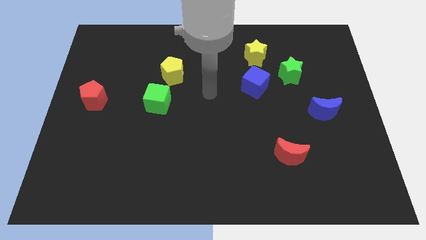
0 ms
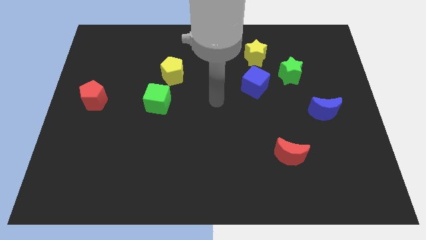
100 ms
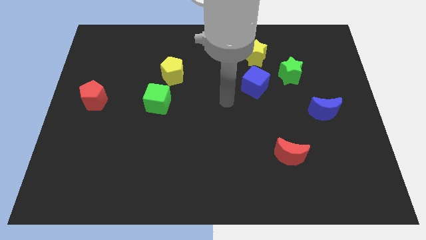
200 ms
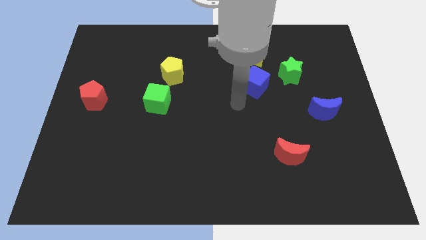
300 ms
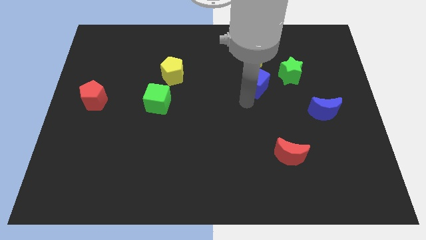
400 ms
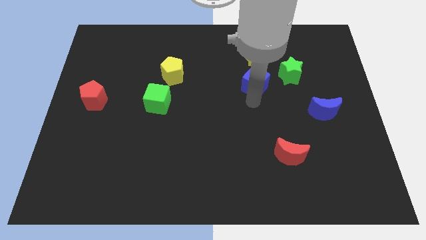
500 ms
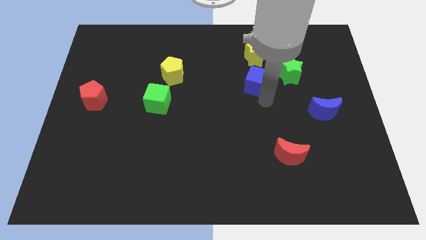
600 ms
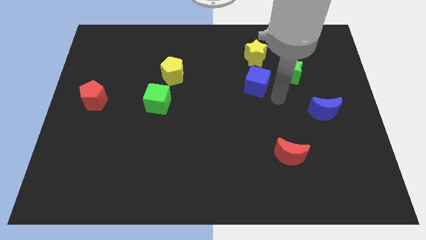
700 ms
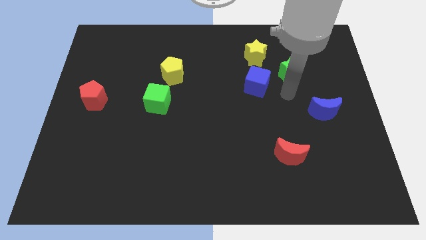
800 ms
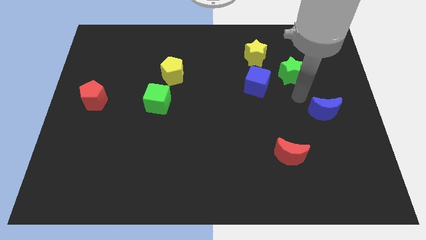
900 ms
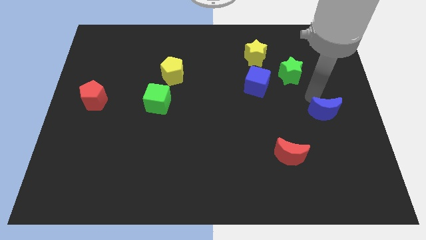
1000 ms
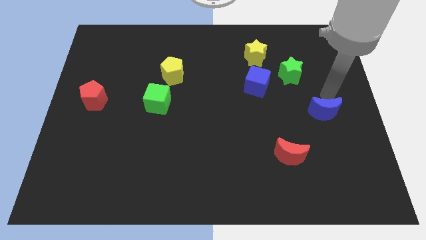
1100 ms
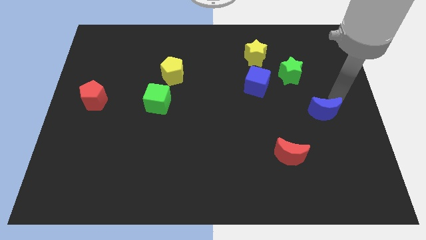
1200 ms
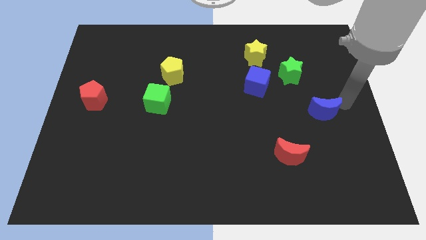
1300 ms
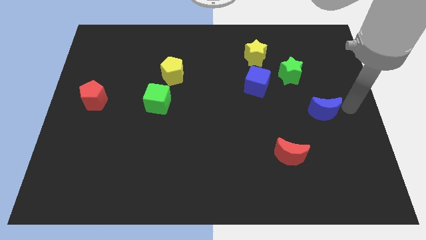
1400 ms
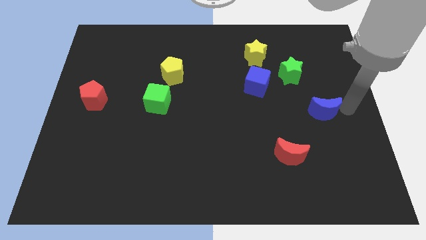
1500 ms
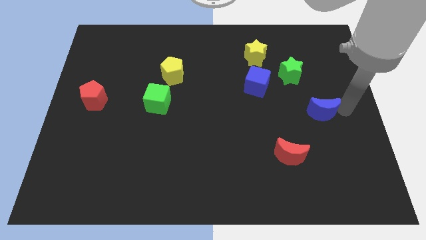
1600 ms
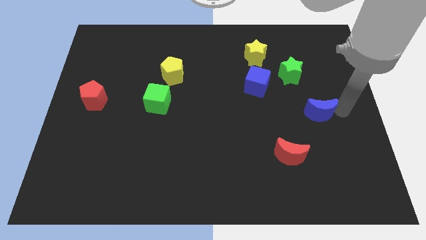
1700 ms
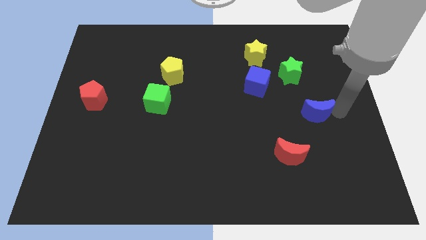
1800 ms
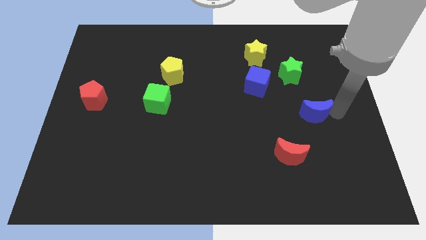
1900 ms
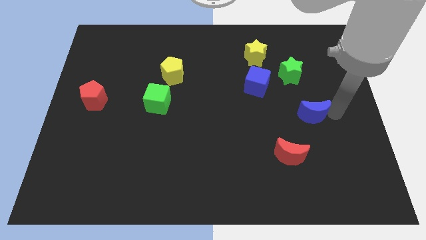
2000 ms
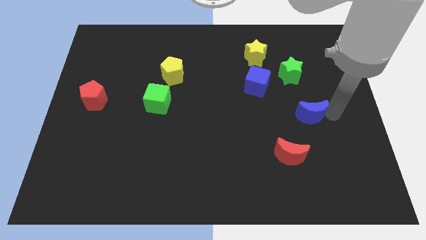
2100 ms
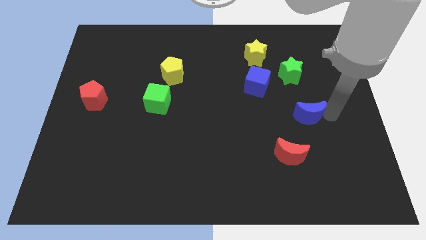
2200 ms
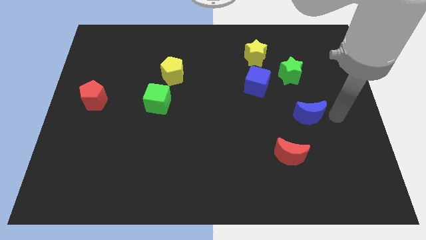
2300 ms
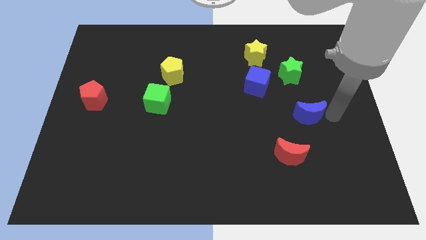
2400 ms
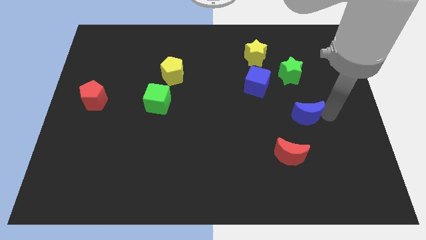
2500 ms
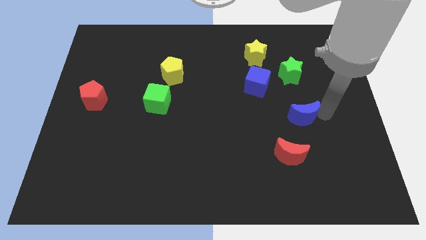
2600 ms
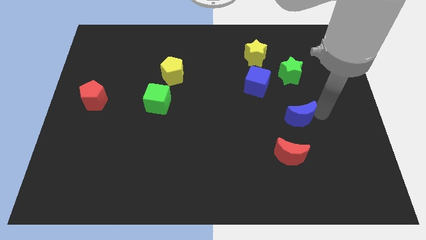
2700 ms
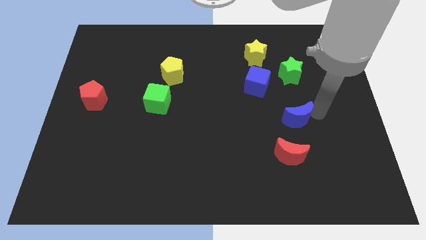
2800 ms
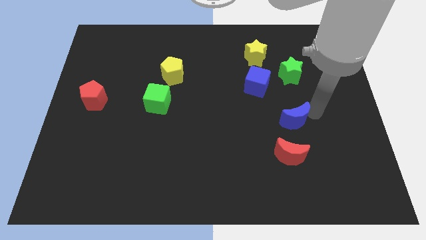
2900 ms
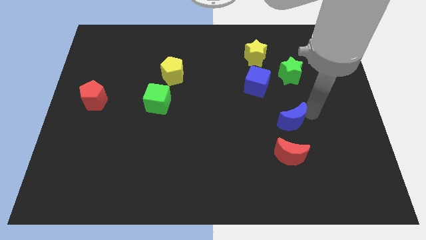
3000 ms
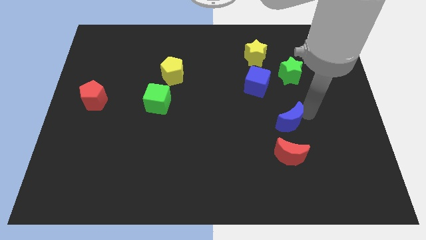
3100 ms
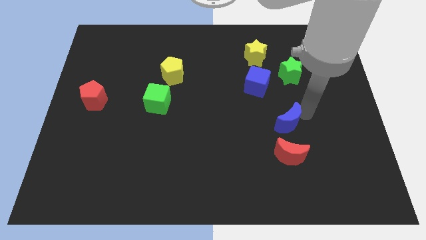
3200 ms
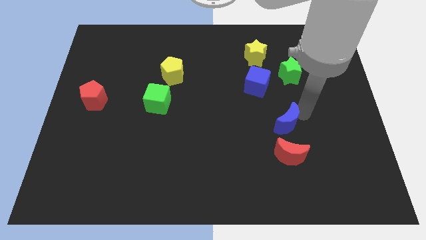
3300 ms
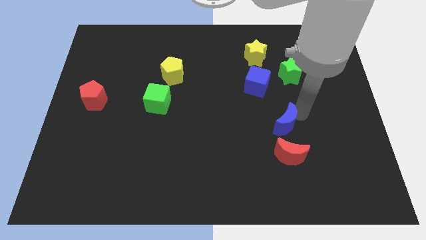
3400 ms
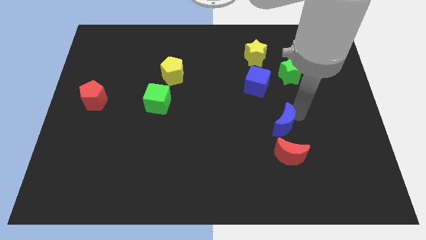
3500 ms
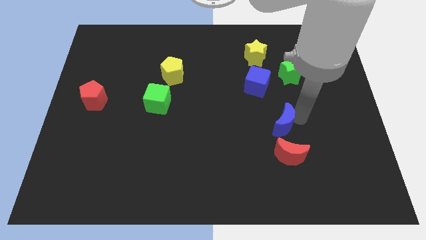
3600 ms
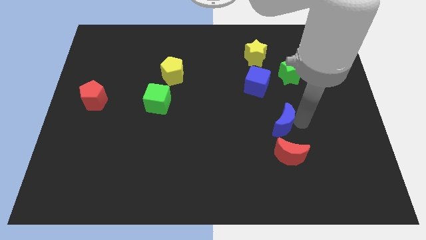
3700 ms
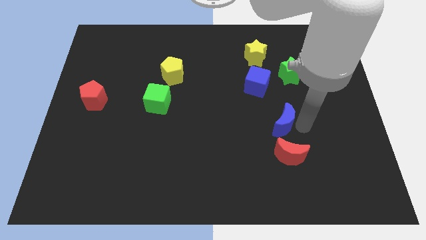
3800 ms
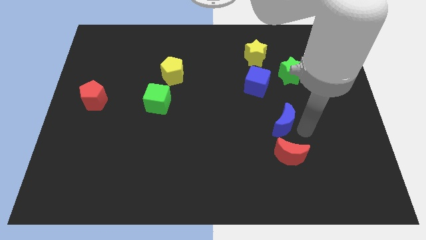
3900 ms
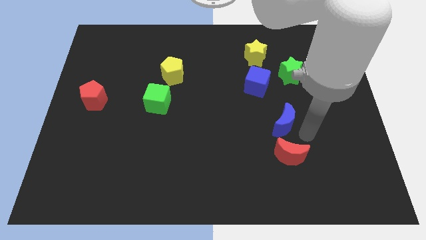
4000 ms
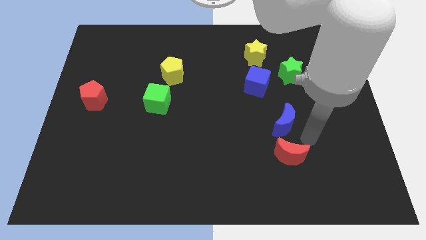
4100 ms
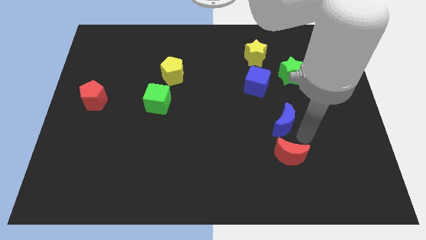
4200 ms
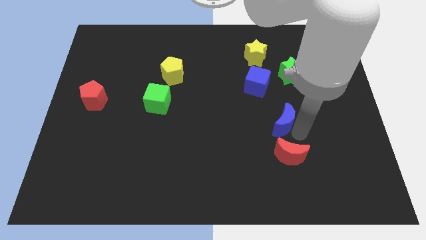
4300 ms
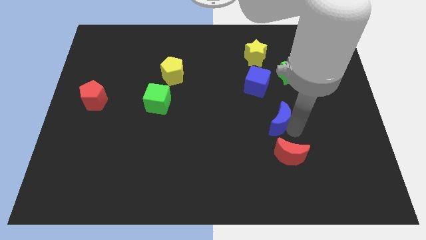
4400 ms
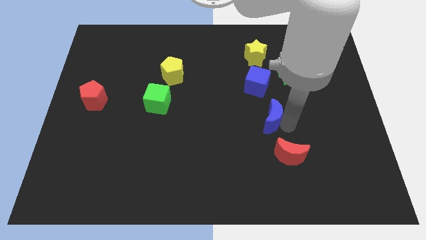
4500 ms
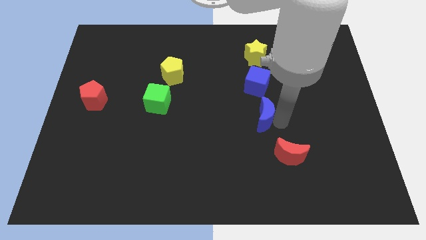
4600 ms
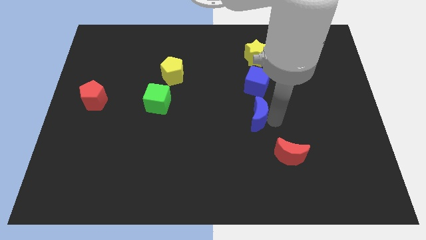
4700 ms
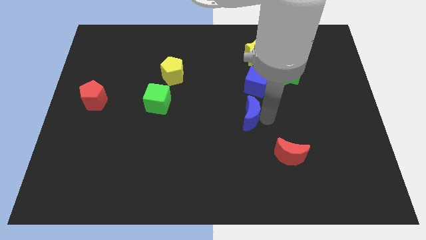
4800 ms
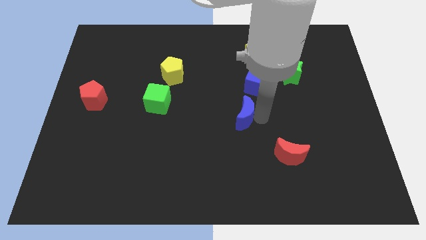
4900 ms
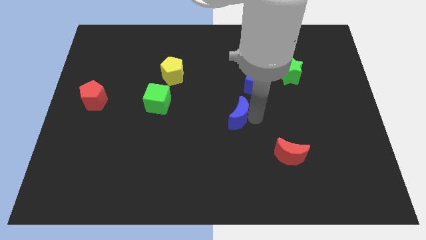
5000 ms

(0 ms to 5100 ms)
push the blue moon left

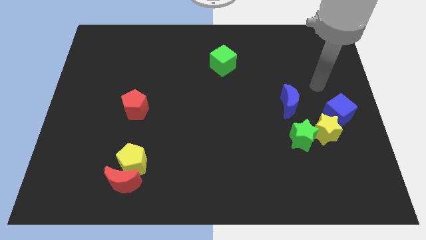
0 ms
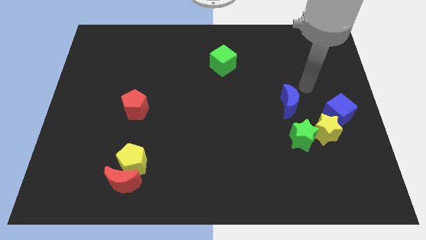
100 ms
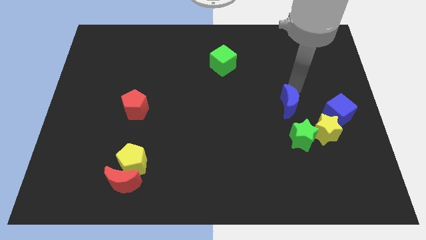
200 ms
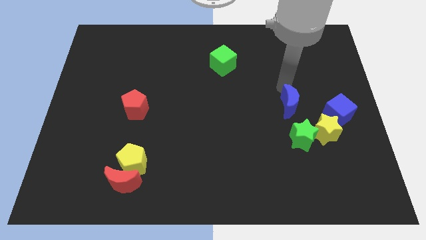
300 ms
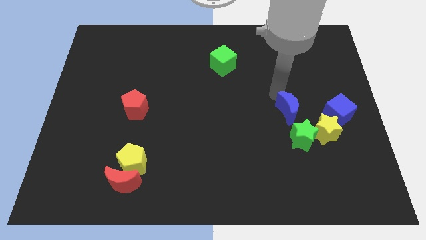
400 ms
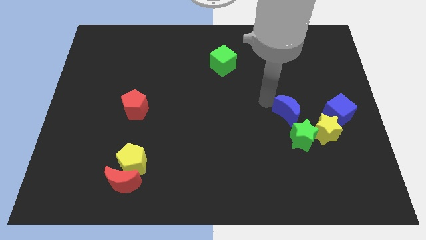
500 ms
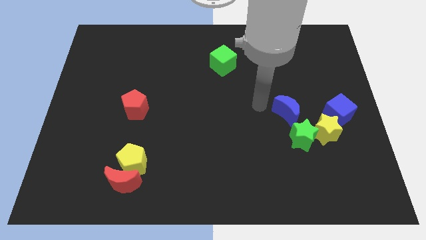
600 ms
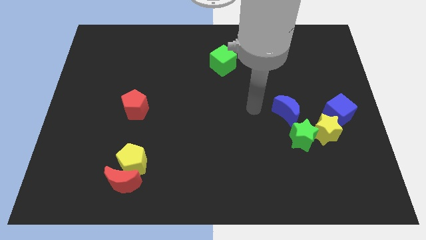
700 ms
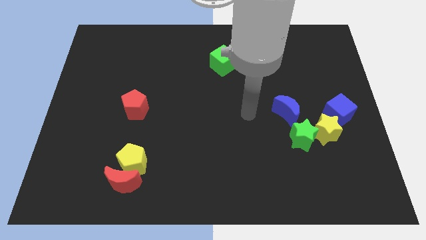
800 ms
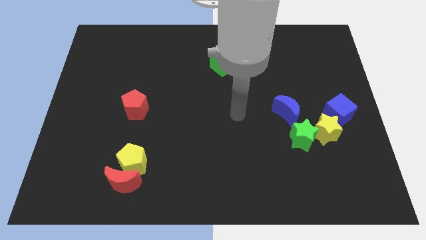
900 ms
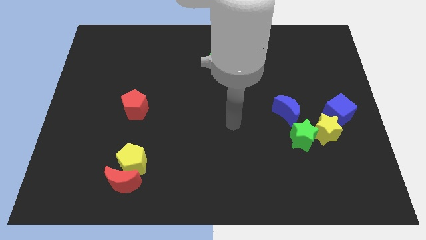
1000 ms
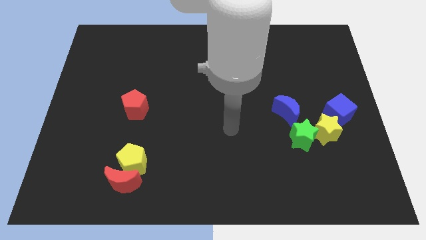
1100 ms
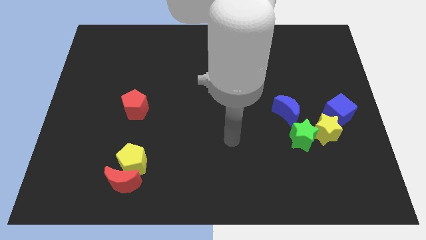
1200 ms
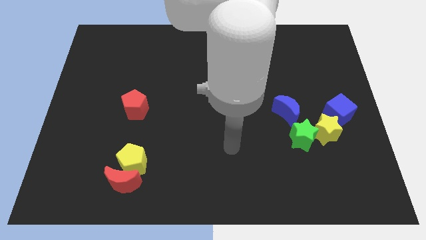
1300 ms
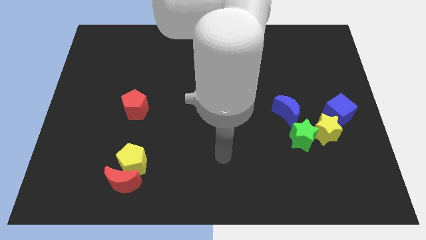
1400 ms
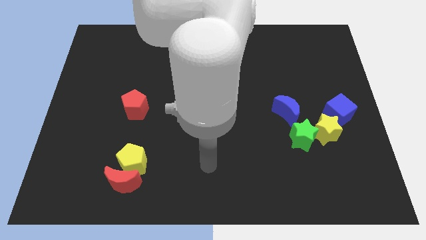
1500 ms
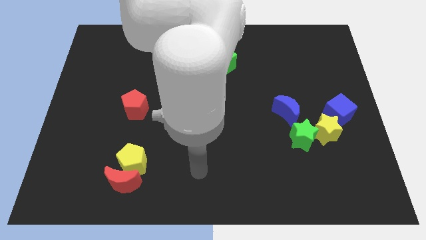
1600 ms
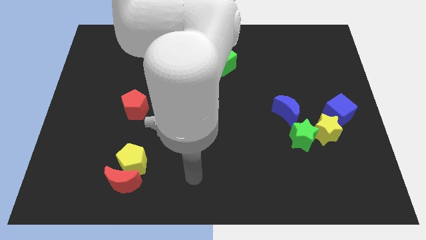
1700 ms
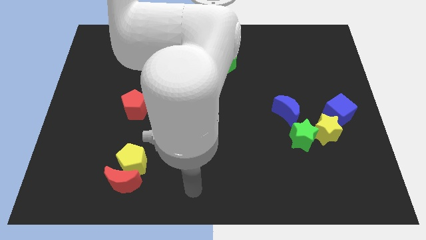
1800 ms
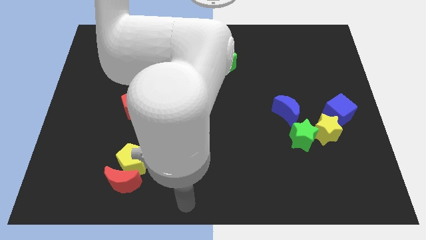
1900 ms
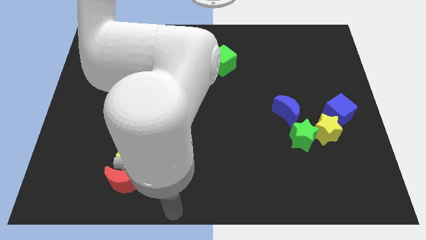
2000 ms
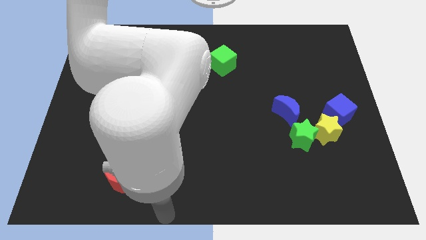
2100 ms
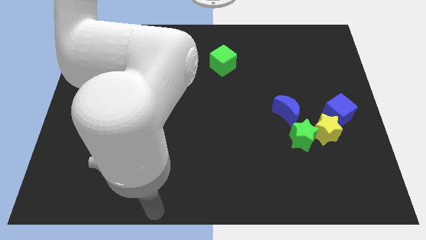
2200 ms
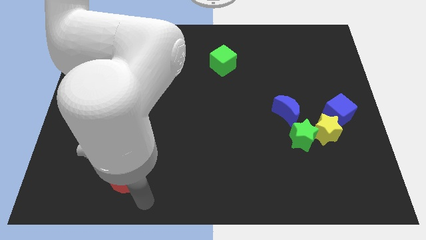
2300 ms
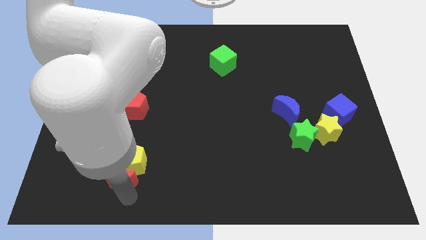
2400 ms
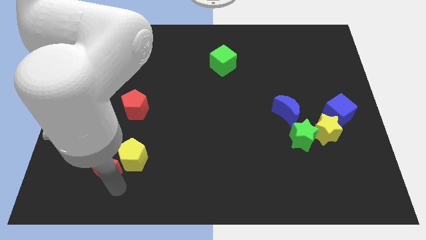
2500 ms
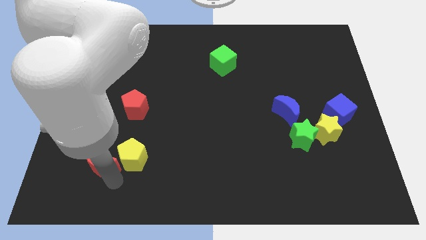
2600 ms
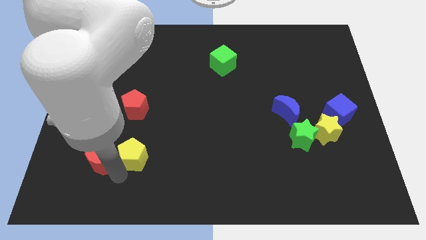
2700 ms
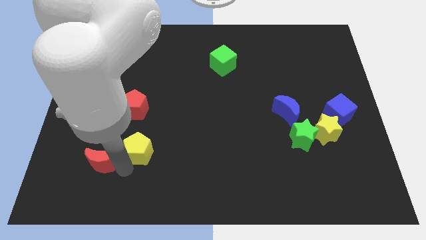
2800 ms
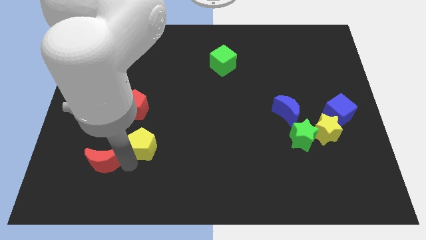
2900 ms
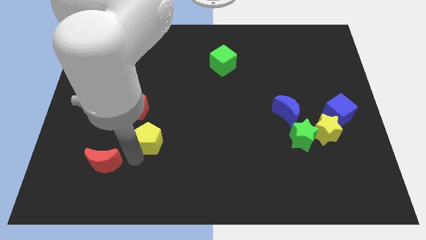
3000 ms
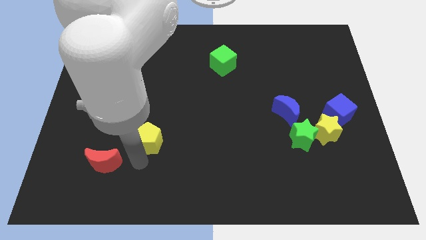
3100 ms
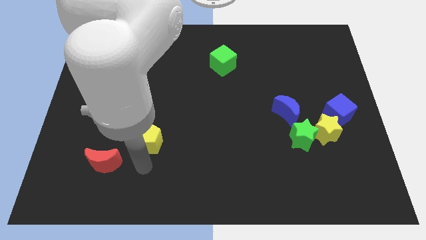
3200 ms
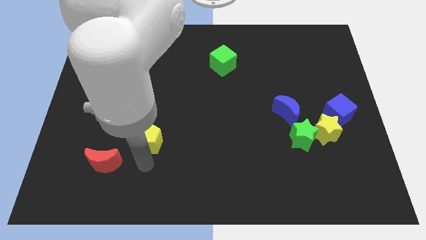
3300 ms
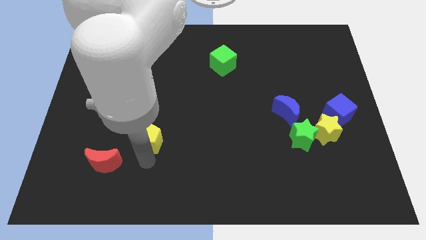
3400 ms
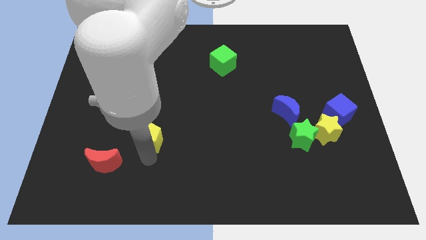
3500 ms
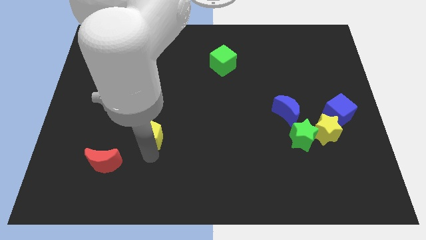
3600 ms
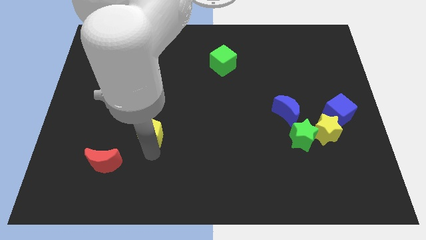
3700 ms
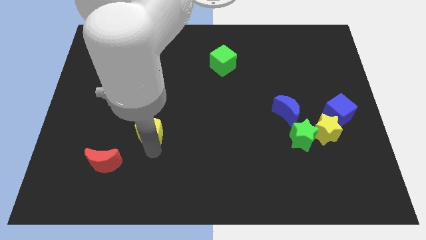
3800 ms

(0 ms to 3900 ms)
slide the yellow pentagon a bit up

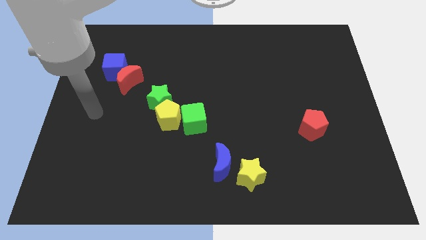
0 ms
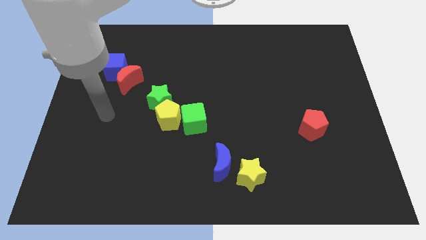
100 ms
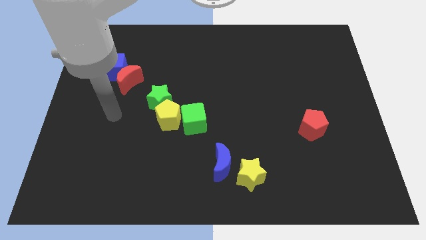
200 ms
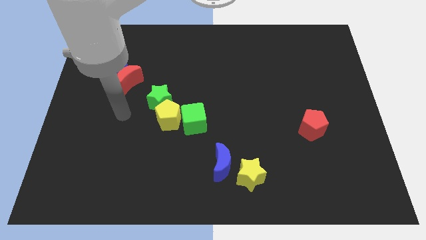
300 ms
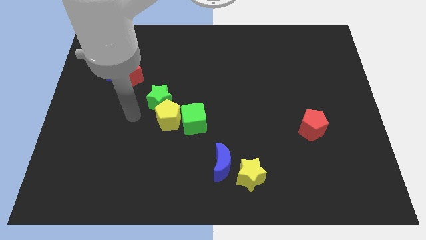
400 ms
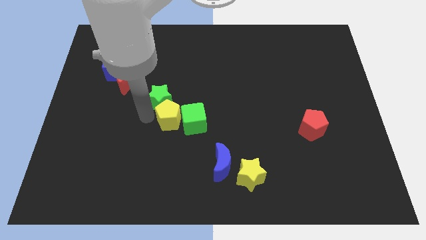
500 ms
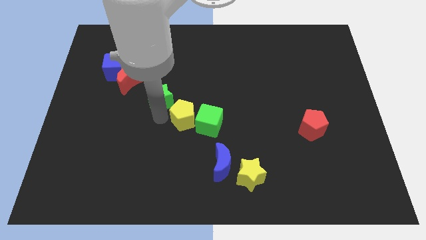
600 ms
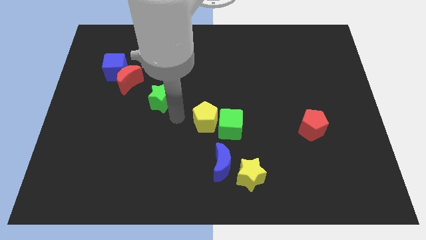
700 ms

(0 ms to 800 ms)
move the green cube right a bit
